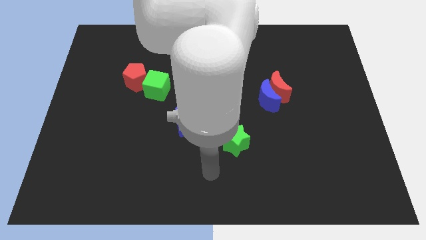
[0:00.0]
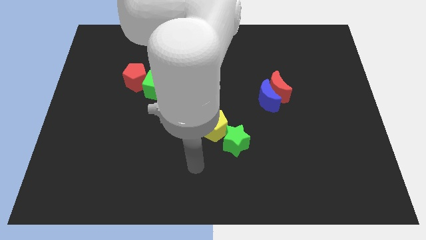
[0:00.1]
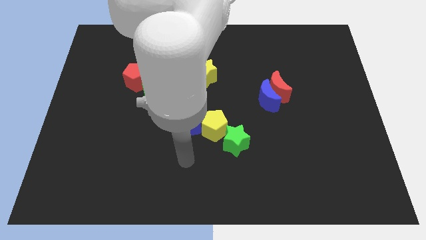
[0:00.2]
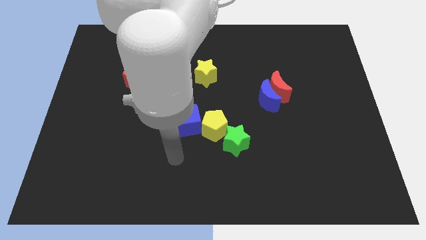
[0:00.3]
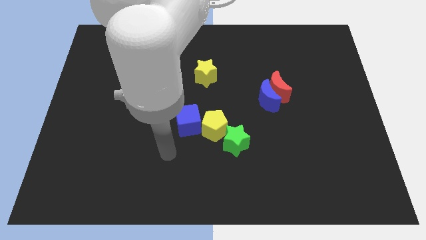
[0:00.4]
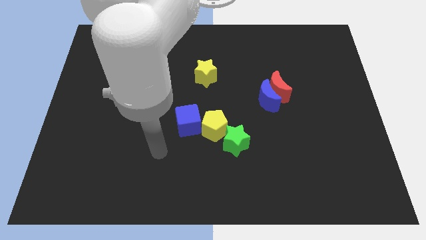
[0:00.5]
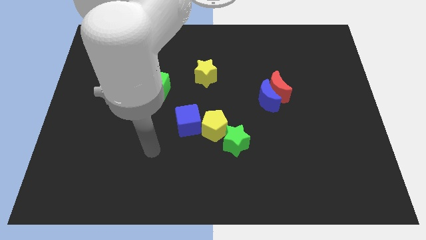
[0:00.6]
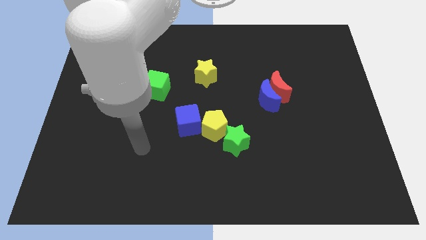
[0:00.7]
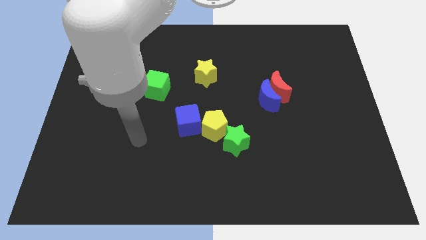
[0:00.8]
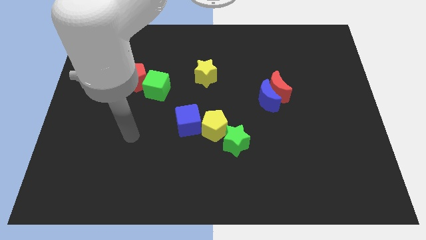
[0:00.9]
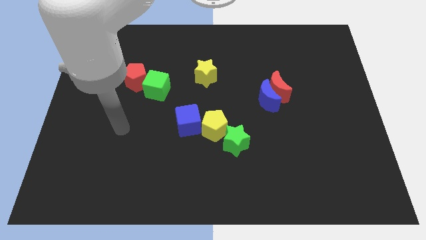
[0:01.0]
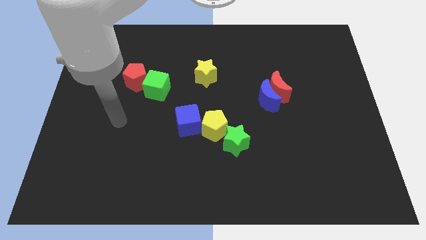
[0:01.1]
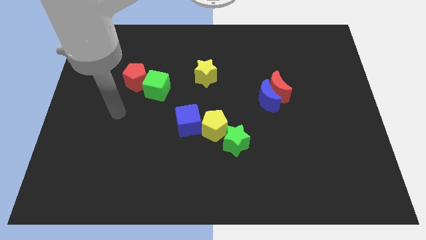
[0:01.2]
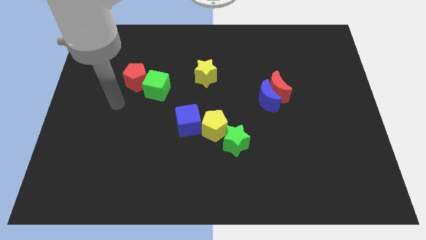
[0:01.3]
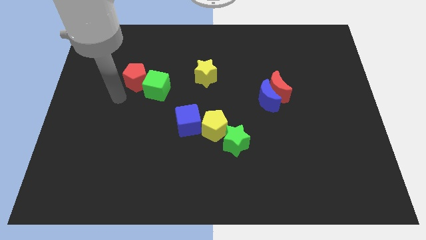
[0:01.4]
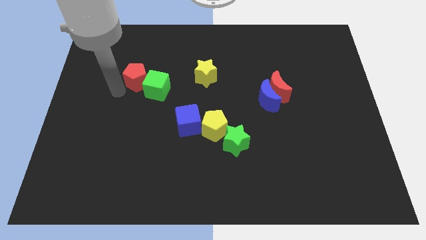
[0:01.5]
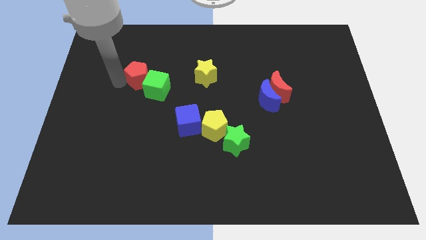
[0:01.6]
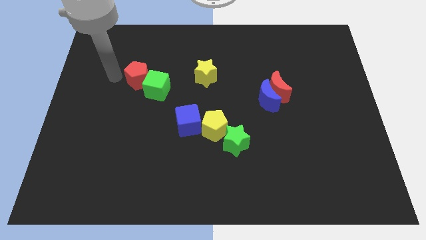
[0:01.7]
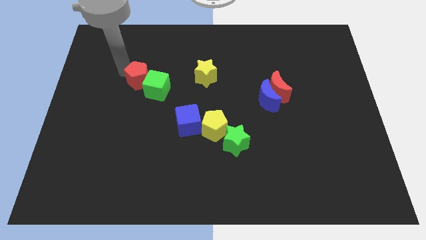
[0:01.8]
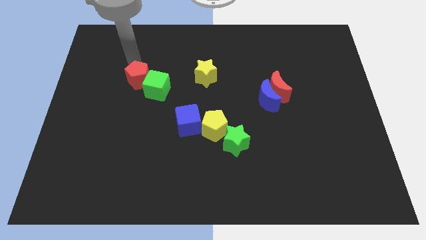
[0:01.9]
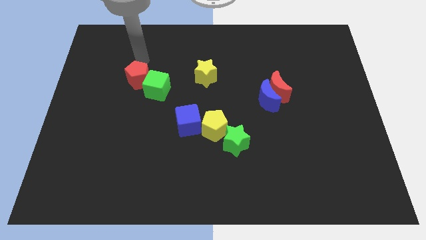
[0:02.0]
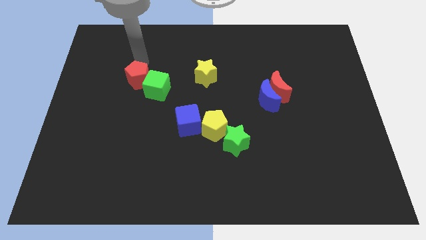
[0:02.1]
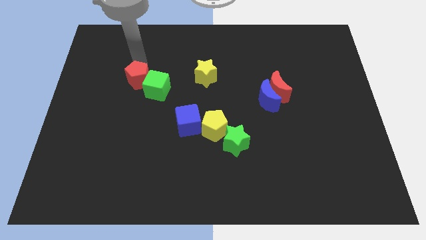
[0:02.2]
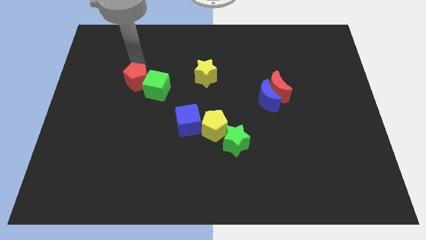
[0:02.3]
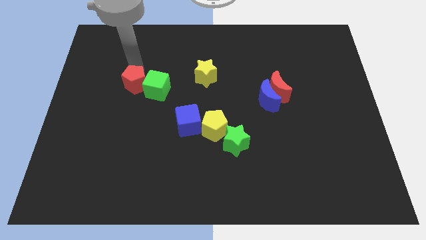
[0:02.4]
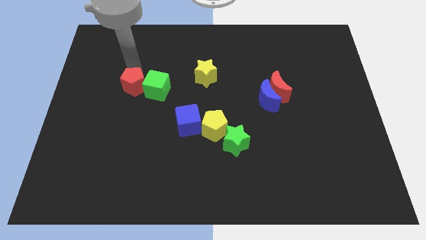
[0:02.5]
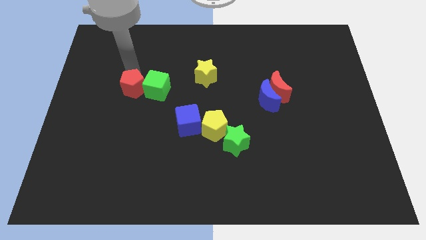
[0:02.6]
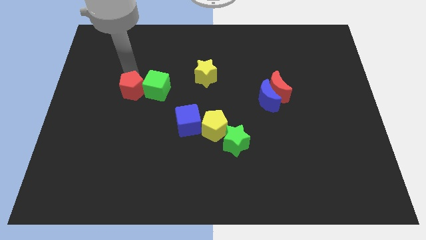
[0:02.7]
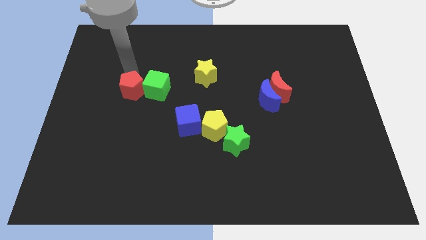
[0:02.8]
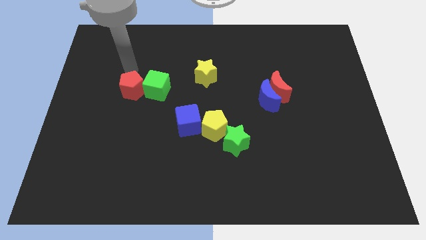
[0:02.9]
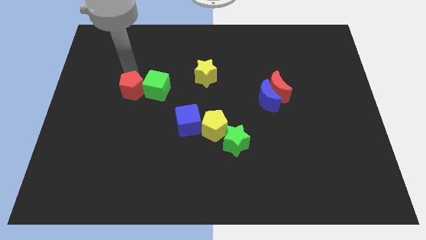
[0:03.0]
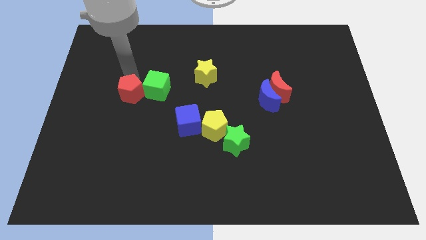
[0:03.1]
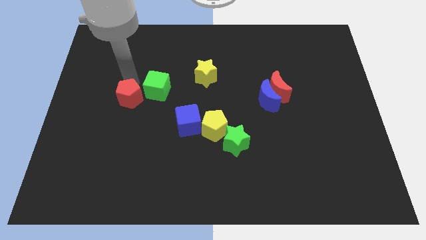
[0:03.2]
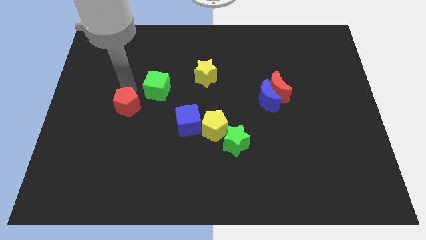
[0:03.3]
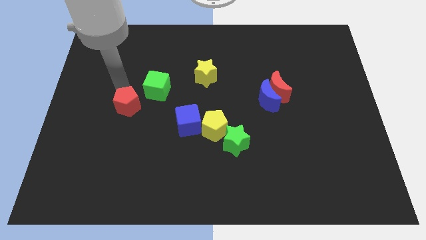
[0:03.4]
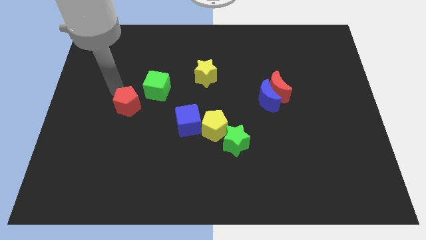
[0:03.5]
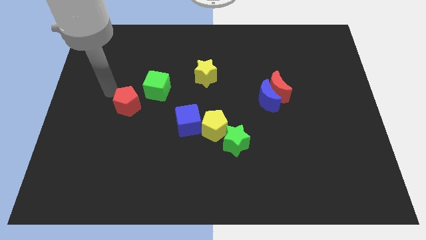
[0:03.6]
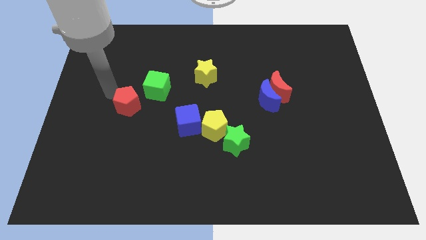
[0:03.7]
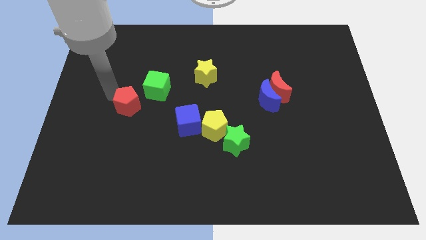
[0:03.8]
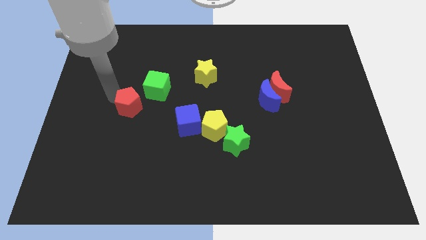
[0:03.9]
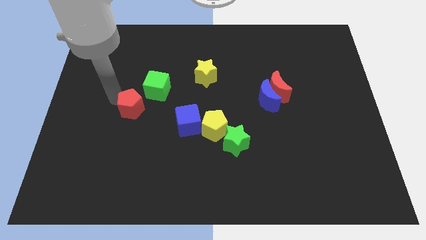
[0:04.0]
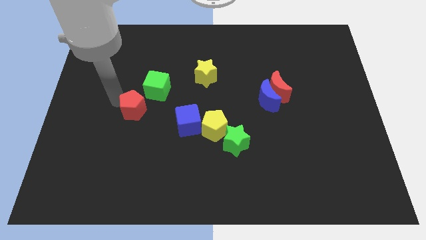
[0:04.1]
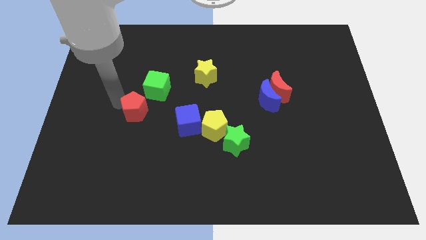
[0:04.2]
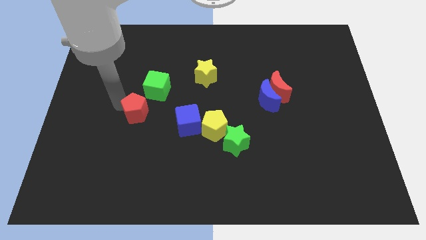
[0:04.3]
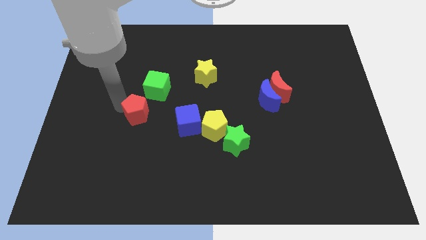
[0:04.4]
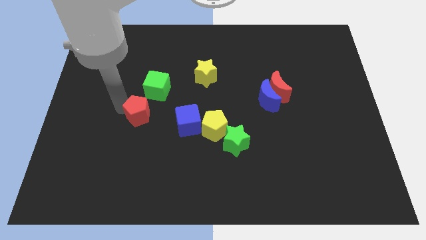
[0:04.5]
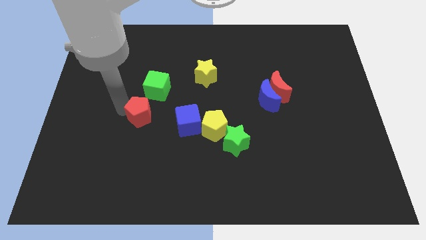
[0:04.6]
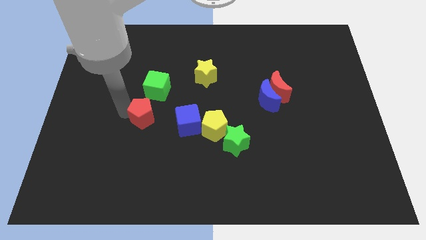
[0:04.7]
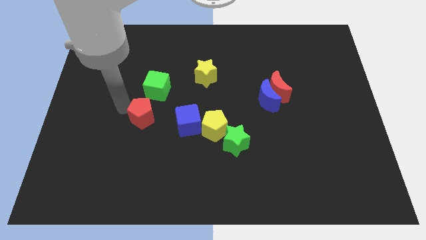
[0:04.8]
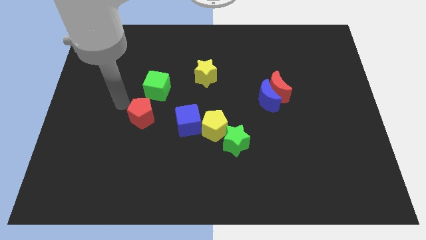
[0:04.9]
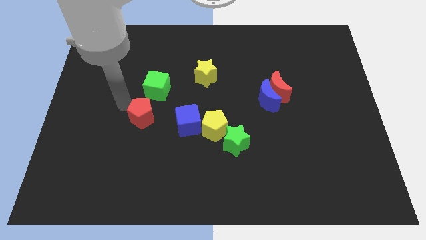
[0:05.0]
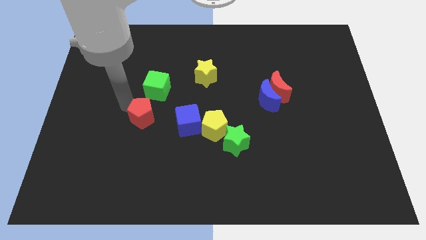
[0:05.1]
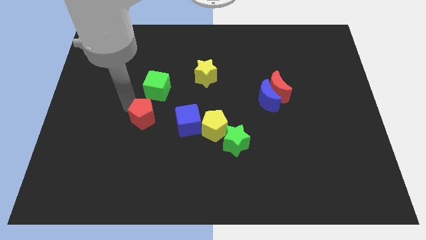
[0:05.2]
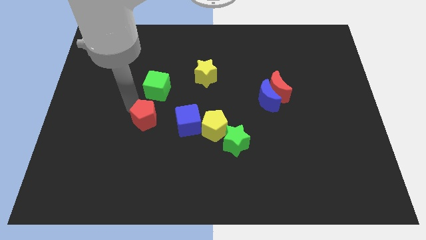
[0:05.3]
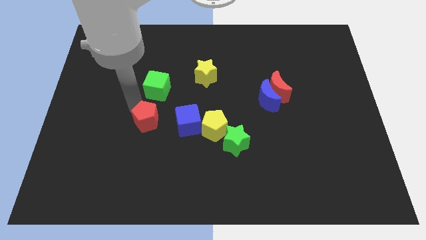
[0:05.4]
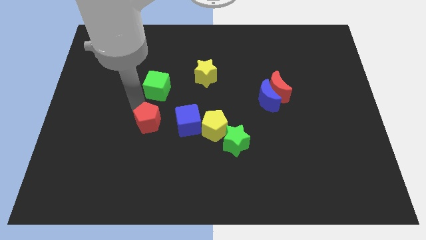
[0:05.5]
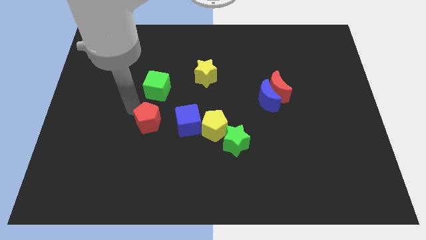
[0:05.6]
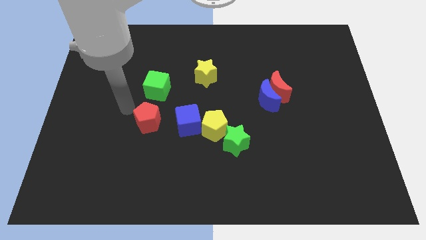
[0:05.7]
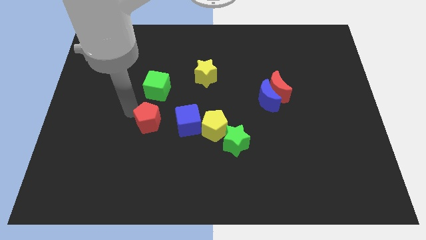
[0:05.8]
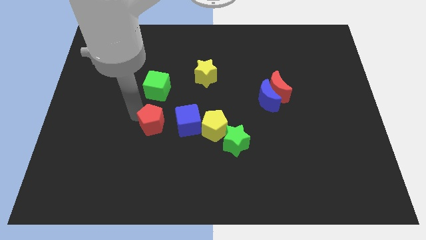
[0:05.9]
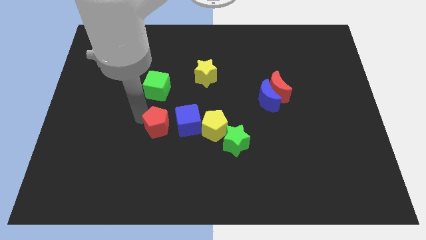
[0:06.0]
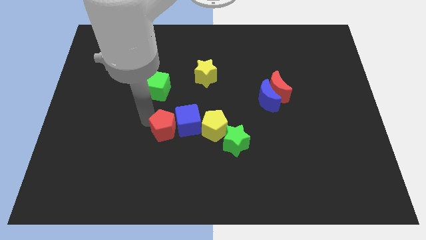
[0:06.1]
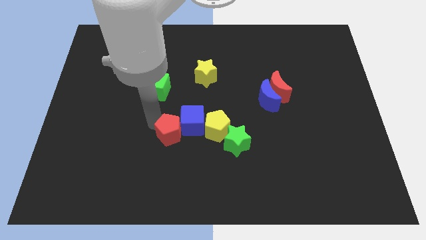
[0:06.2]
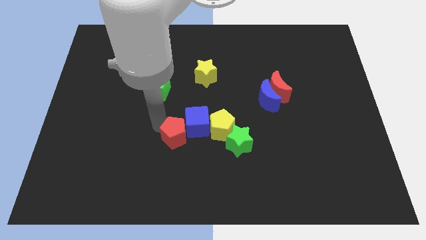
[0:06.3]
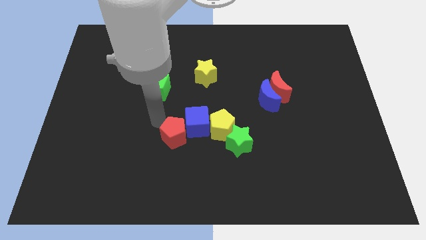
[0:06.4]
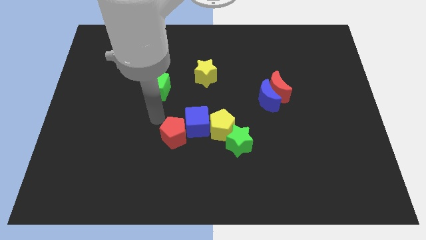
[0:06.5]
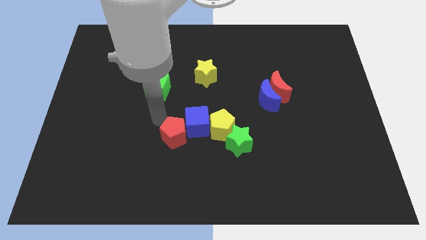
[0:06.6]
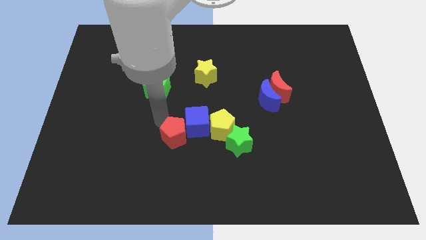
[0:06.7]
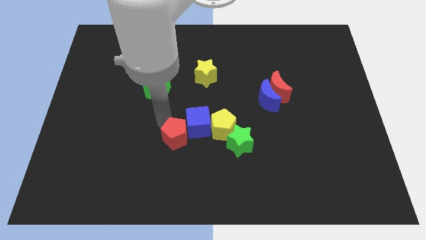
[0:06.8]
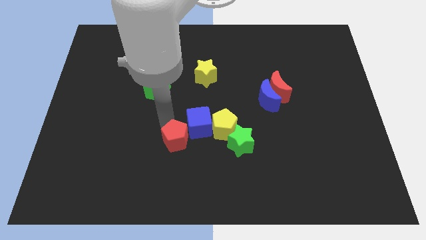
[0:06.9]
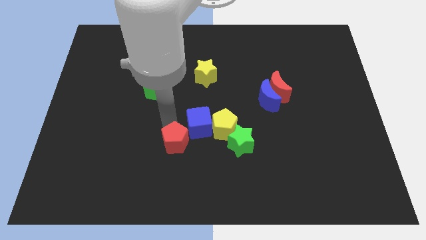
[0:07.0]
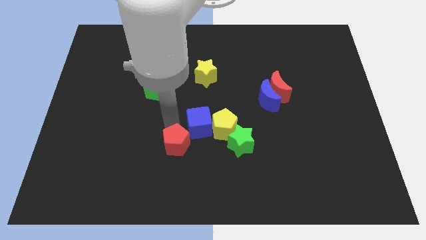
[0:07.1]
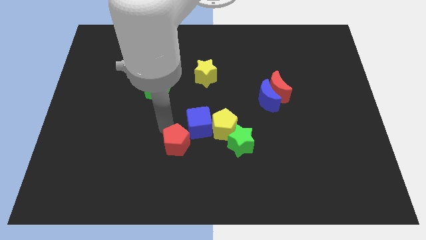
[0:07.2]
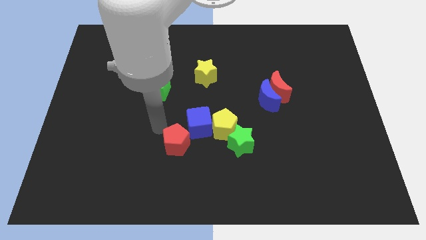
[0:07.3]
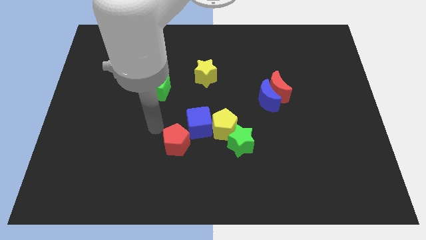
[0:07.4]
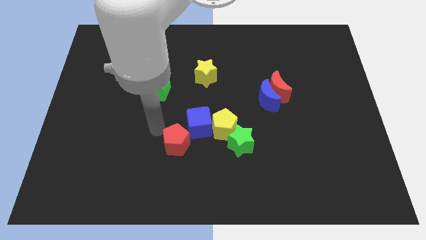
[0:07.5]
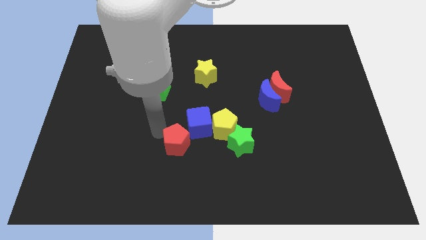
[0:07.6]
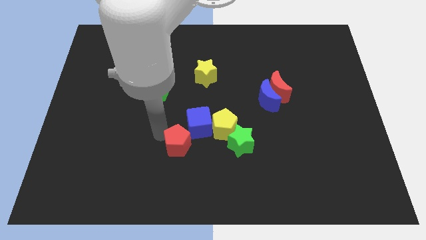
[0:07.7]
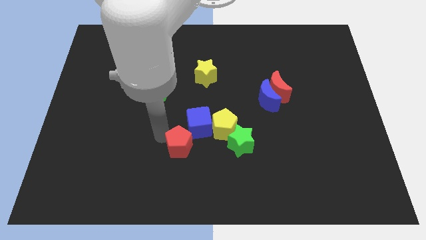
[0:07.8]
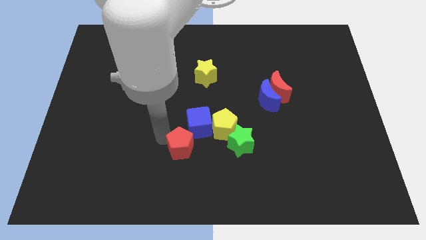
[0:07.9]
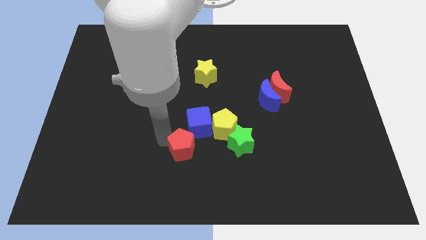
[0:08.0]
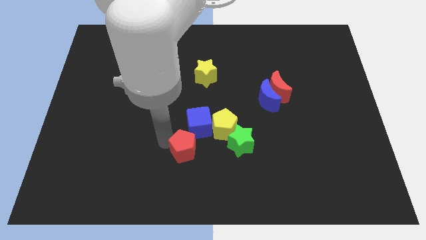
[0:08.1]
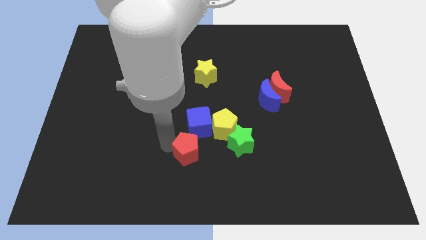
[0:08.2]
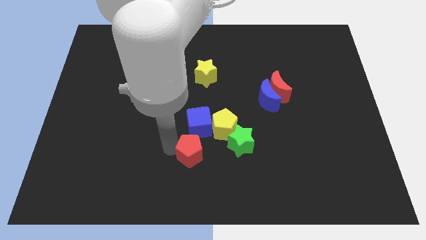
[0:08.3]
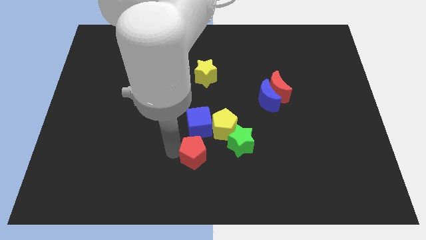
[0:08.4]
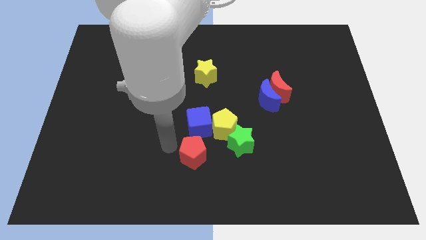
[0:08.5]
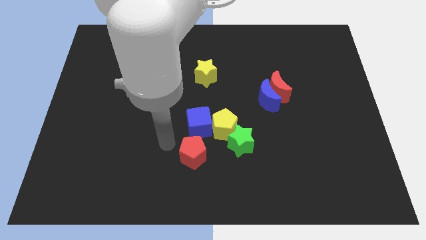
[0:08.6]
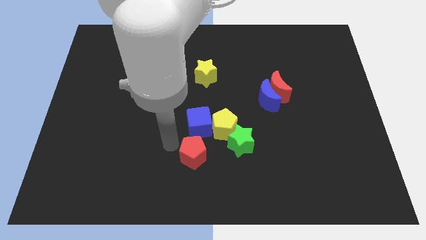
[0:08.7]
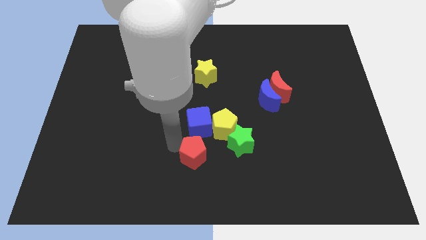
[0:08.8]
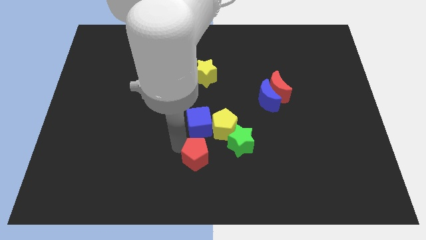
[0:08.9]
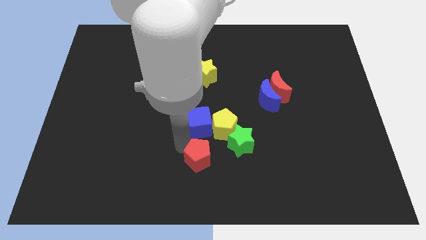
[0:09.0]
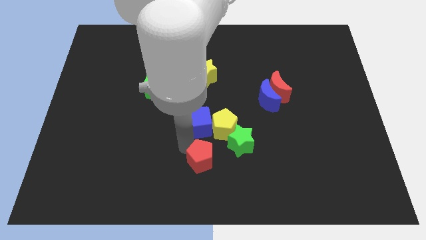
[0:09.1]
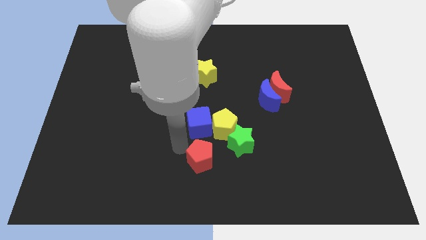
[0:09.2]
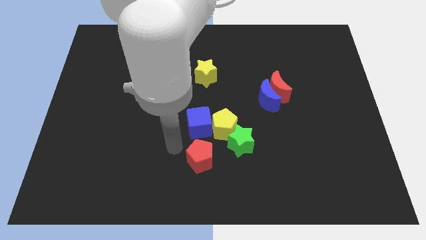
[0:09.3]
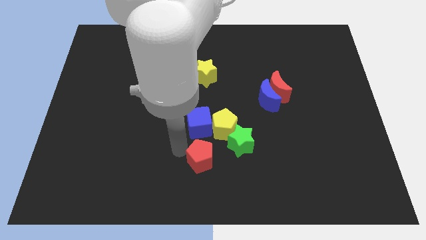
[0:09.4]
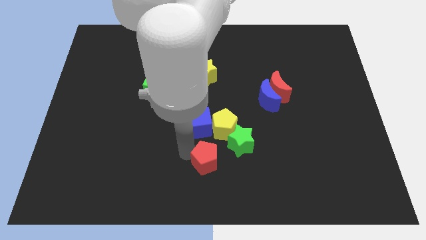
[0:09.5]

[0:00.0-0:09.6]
push the red pentagon to the bottom of the yellow pentagon
